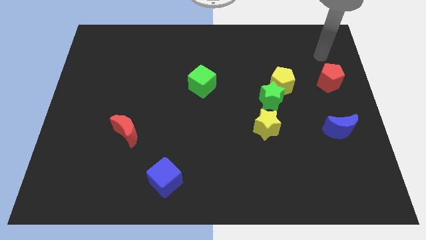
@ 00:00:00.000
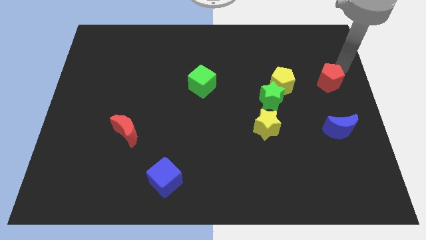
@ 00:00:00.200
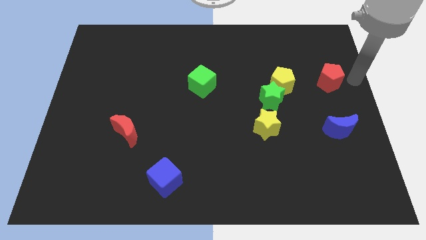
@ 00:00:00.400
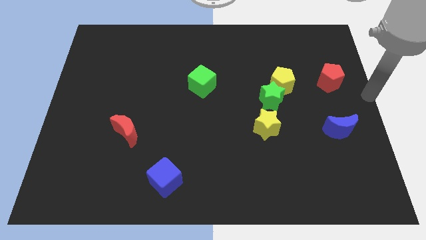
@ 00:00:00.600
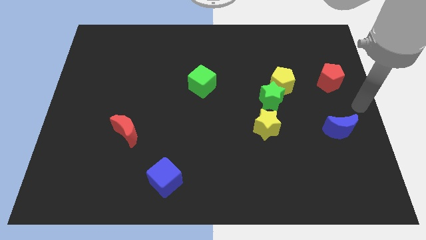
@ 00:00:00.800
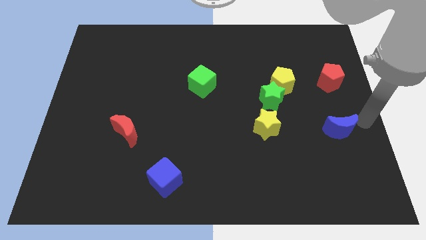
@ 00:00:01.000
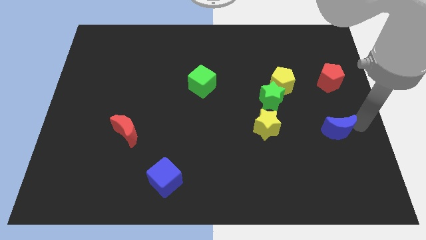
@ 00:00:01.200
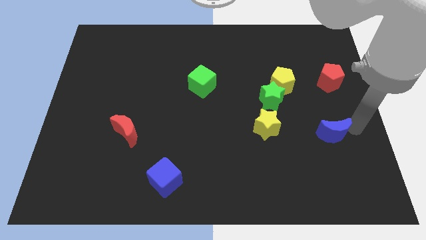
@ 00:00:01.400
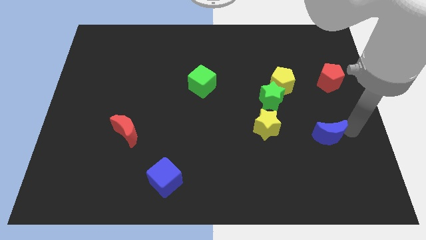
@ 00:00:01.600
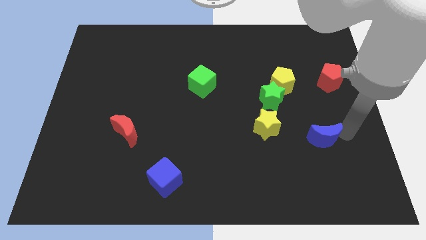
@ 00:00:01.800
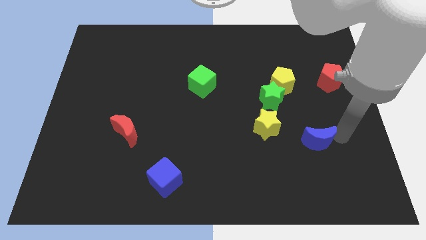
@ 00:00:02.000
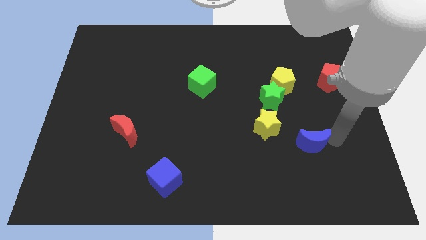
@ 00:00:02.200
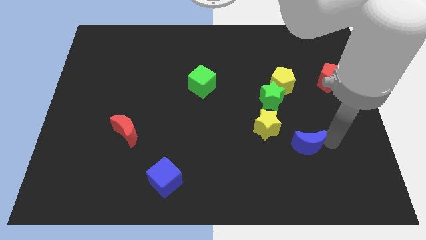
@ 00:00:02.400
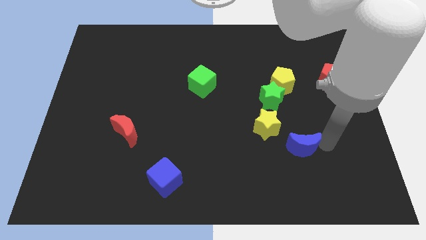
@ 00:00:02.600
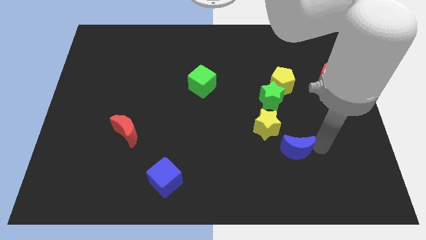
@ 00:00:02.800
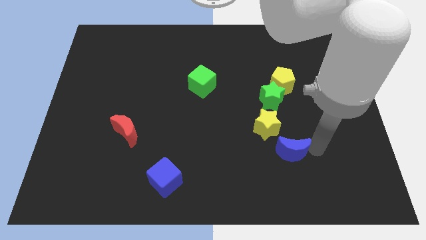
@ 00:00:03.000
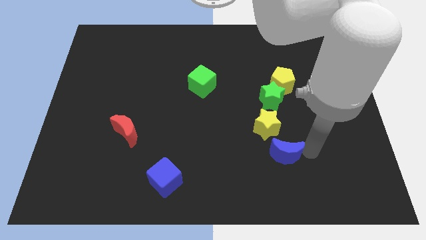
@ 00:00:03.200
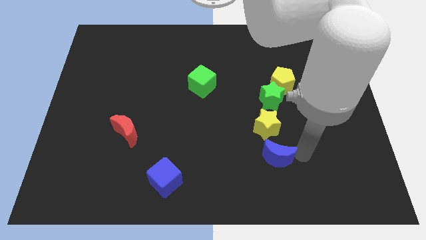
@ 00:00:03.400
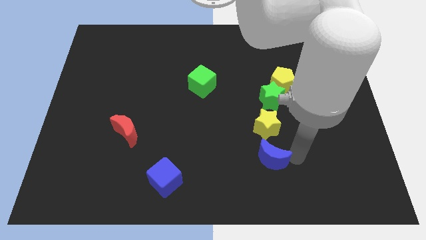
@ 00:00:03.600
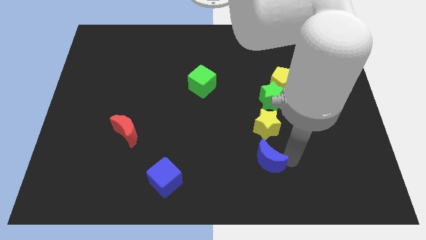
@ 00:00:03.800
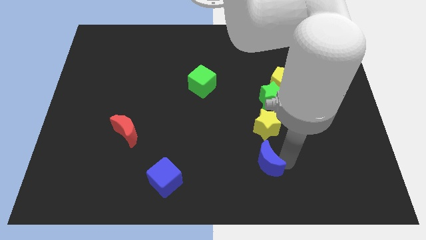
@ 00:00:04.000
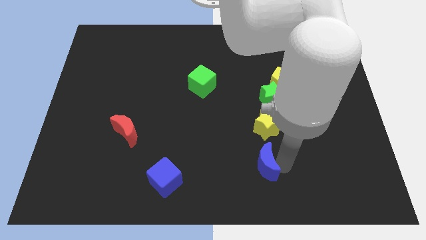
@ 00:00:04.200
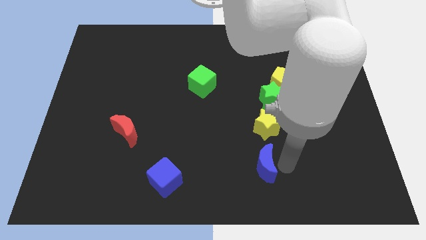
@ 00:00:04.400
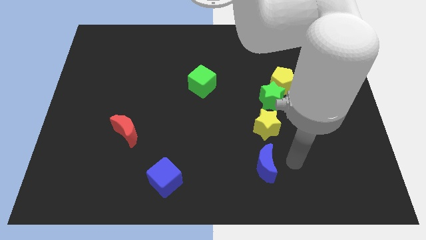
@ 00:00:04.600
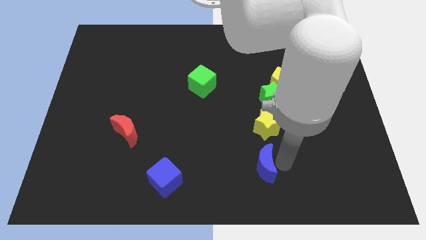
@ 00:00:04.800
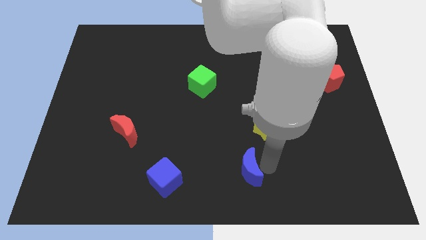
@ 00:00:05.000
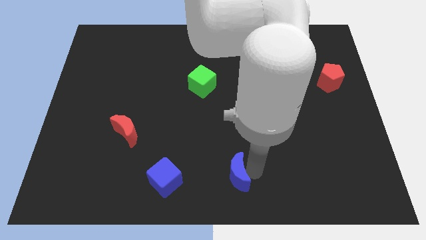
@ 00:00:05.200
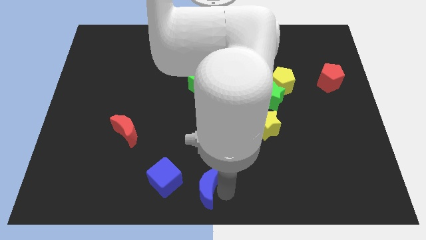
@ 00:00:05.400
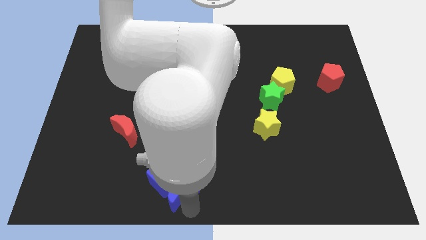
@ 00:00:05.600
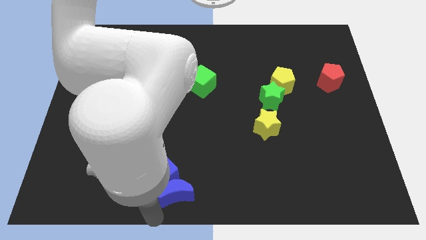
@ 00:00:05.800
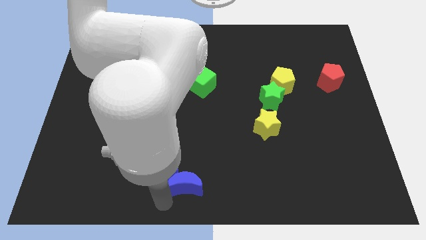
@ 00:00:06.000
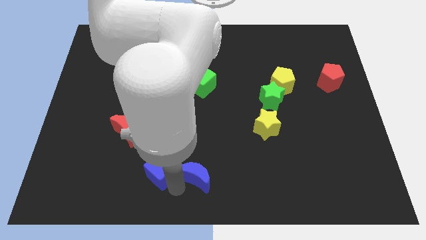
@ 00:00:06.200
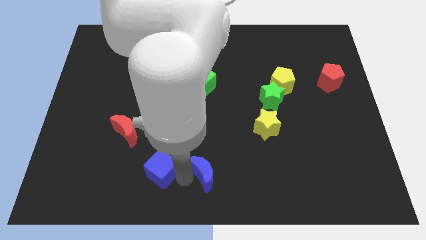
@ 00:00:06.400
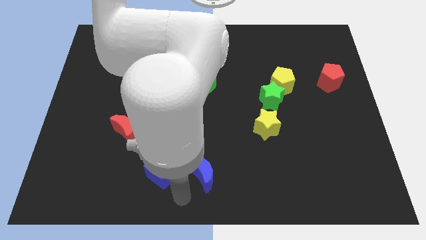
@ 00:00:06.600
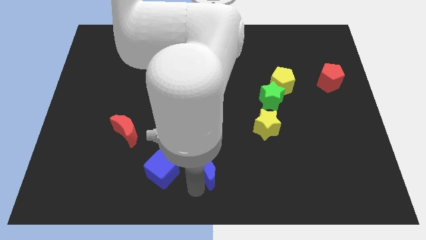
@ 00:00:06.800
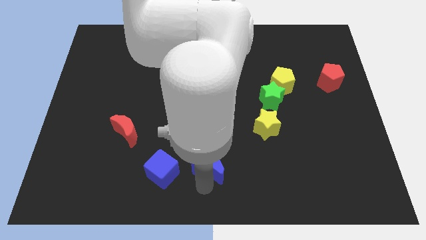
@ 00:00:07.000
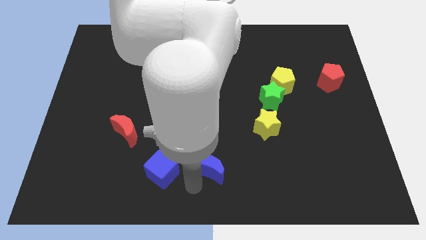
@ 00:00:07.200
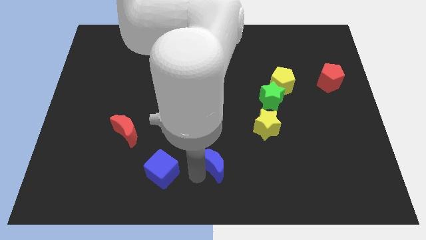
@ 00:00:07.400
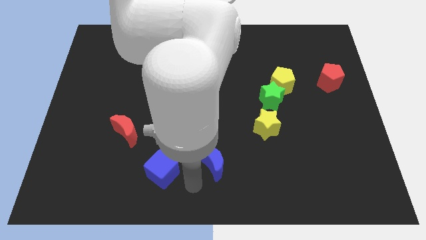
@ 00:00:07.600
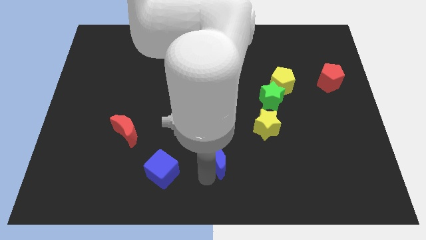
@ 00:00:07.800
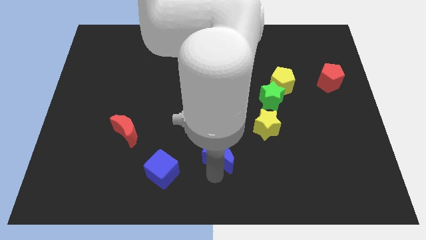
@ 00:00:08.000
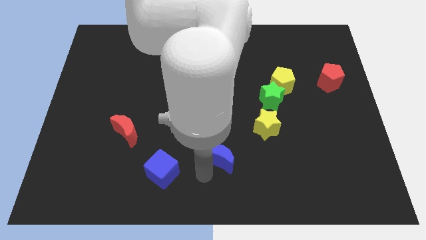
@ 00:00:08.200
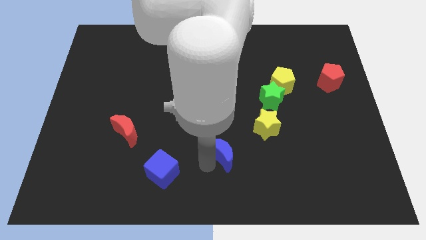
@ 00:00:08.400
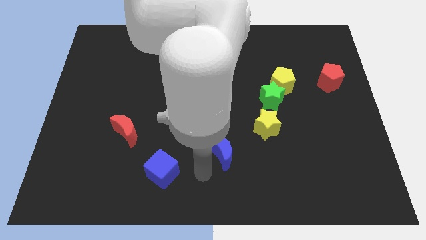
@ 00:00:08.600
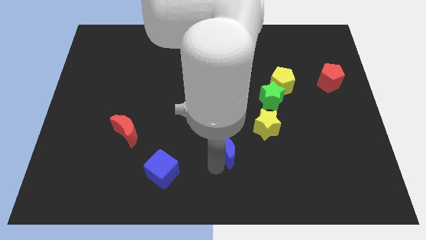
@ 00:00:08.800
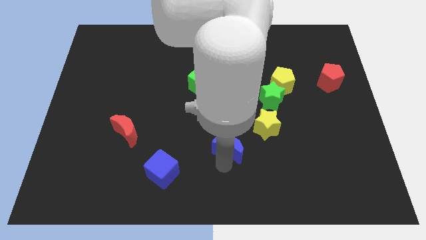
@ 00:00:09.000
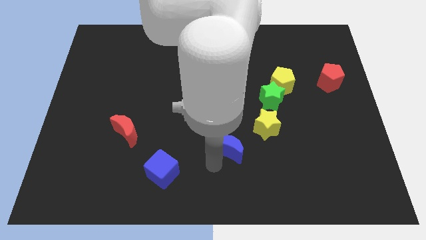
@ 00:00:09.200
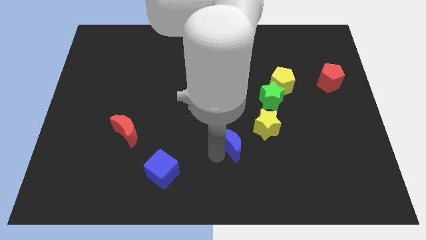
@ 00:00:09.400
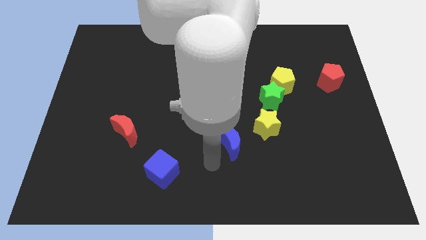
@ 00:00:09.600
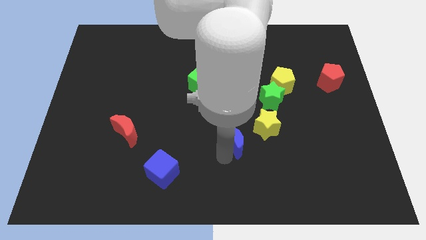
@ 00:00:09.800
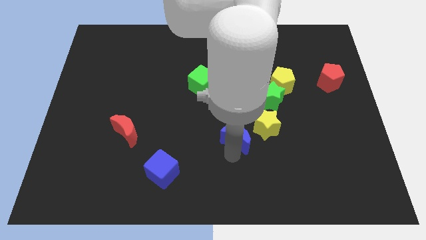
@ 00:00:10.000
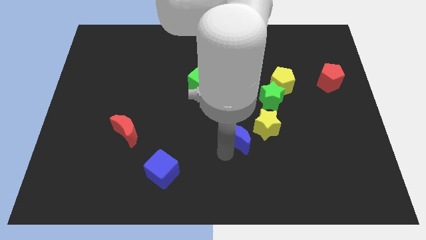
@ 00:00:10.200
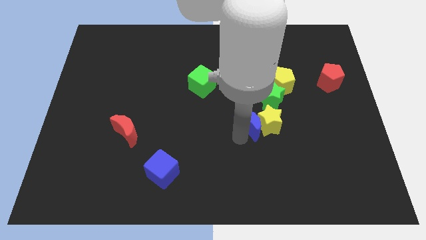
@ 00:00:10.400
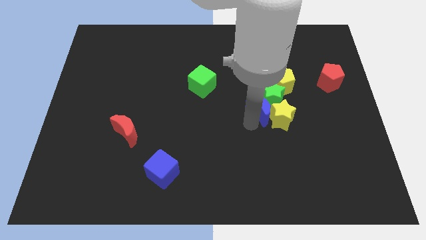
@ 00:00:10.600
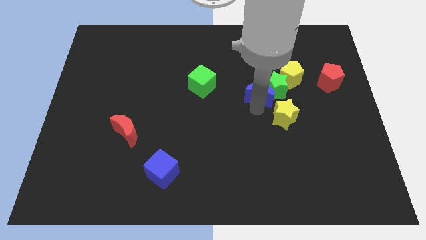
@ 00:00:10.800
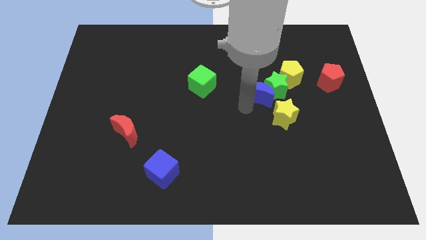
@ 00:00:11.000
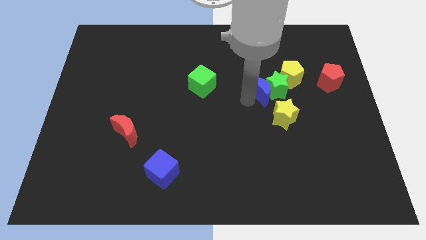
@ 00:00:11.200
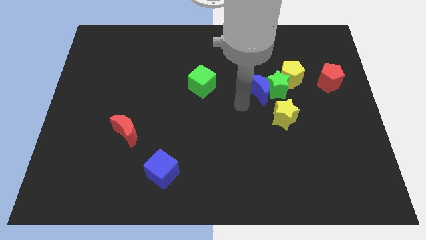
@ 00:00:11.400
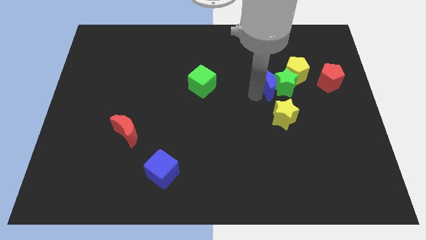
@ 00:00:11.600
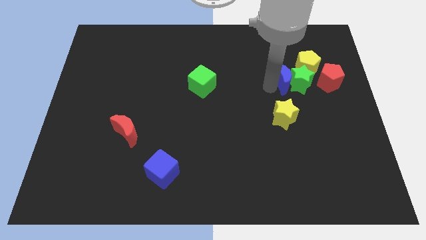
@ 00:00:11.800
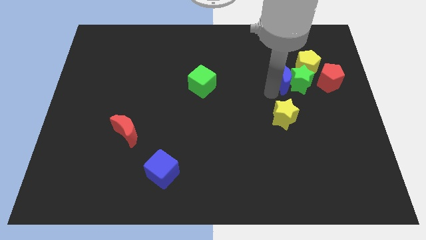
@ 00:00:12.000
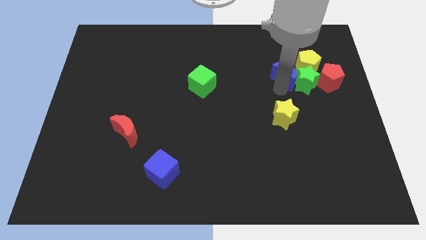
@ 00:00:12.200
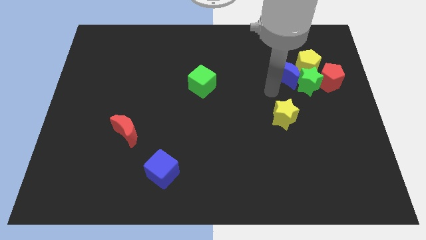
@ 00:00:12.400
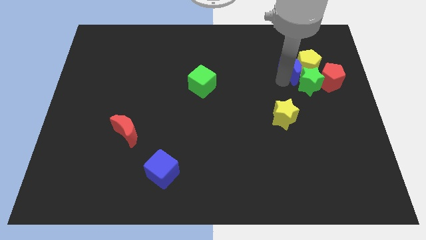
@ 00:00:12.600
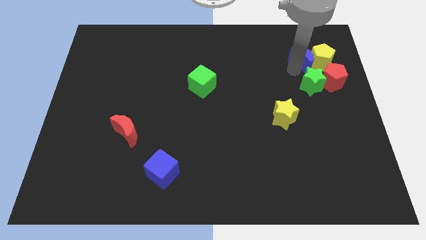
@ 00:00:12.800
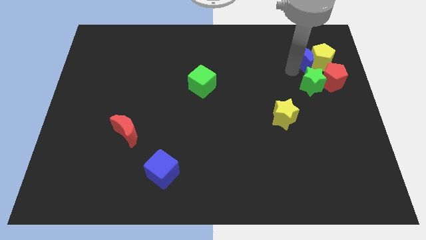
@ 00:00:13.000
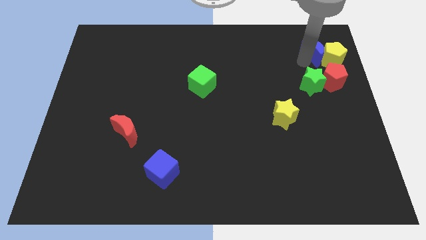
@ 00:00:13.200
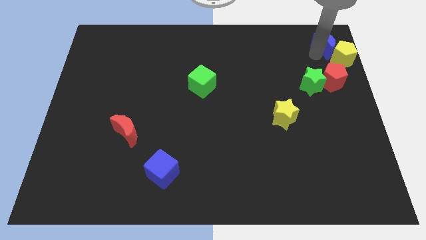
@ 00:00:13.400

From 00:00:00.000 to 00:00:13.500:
slide the blue moon to the upper right corner
